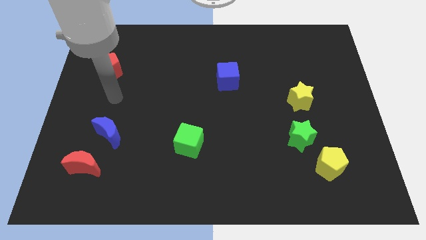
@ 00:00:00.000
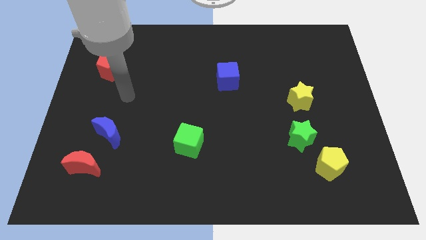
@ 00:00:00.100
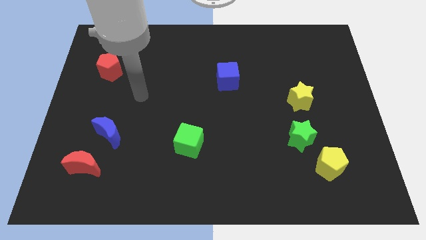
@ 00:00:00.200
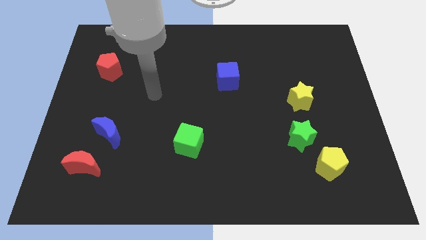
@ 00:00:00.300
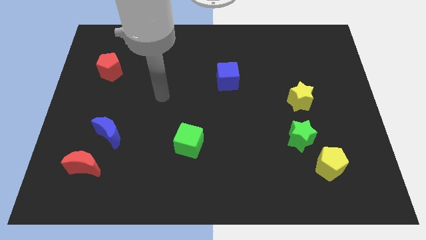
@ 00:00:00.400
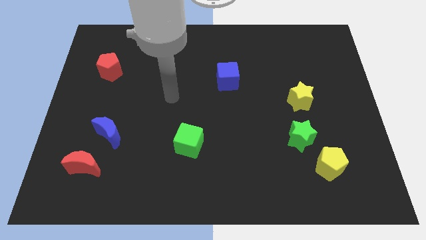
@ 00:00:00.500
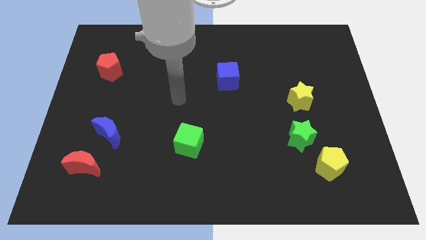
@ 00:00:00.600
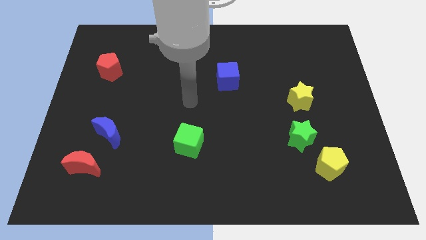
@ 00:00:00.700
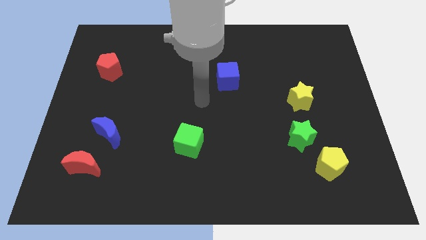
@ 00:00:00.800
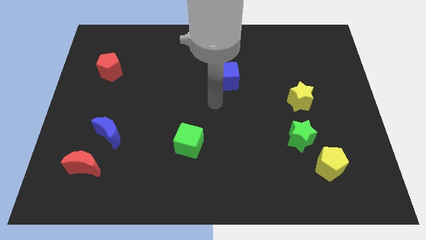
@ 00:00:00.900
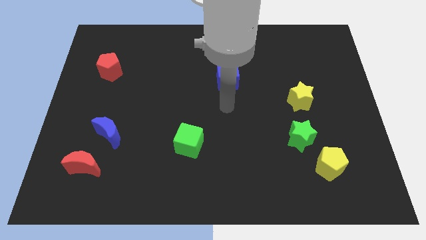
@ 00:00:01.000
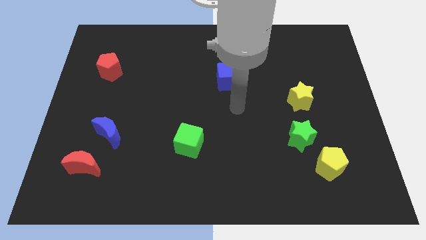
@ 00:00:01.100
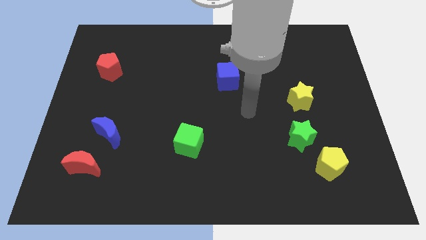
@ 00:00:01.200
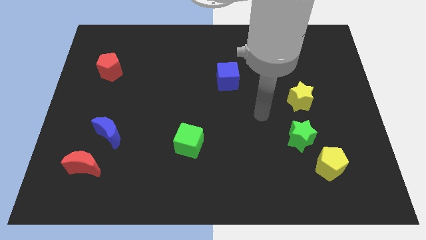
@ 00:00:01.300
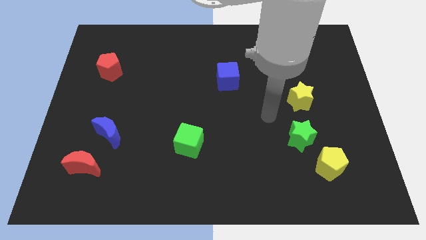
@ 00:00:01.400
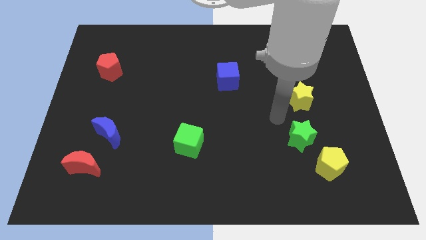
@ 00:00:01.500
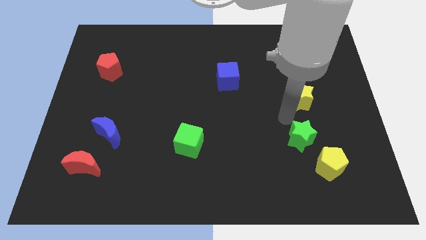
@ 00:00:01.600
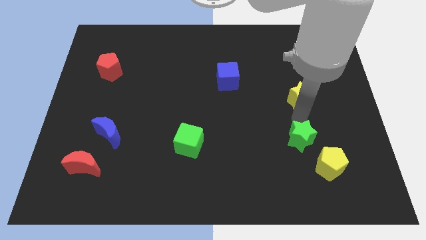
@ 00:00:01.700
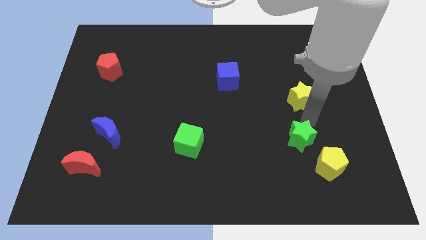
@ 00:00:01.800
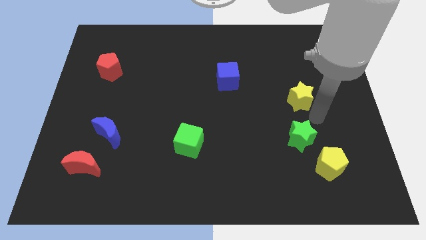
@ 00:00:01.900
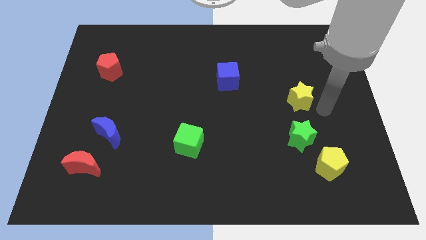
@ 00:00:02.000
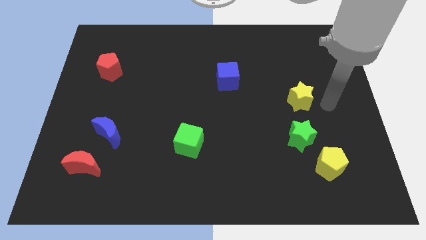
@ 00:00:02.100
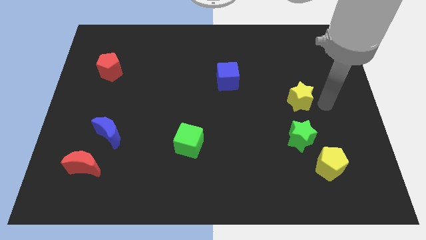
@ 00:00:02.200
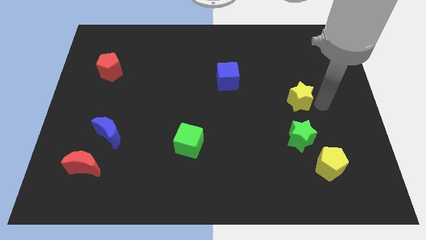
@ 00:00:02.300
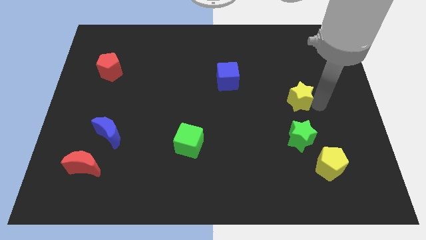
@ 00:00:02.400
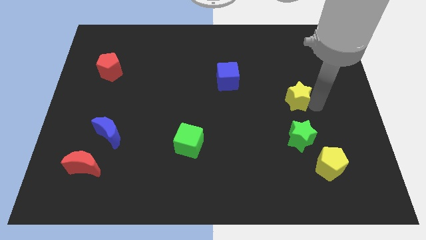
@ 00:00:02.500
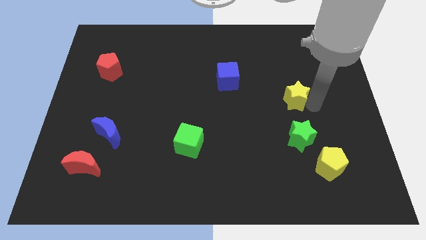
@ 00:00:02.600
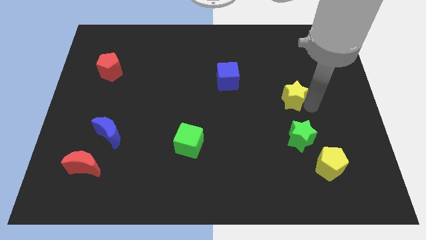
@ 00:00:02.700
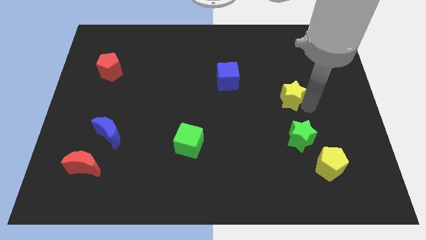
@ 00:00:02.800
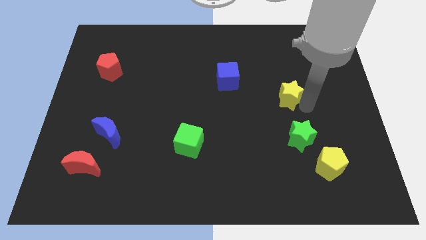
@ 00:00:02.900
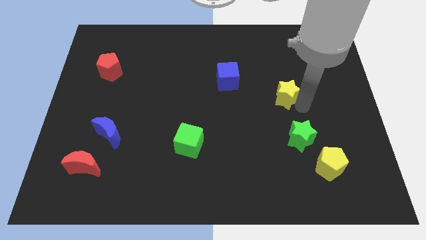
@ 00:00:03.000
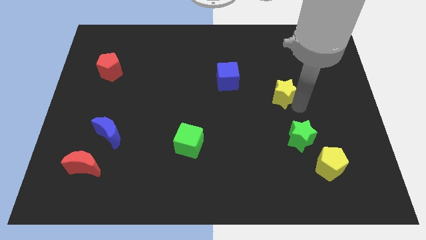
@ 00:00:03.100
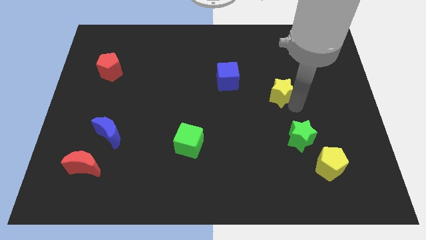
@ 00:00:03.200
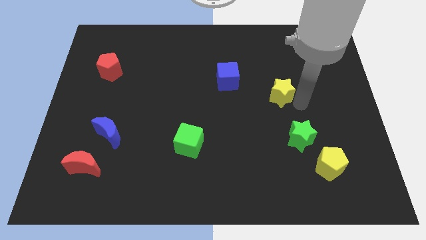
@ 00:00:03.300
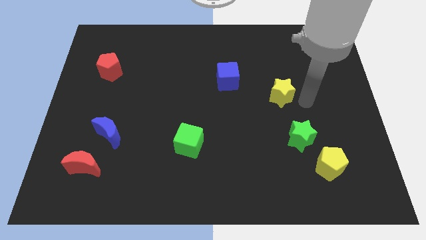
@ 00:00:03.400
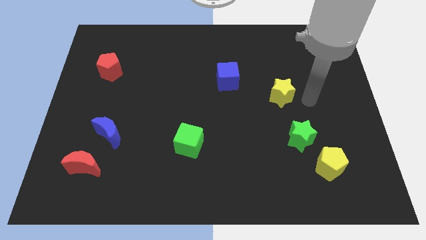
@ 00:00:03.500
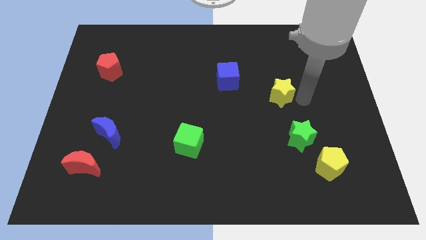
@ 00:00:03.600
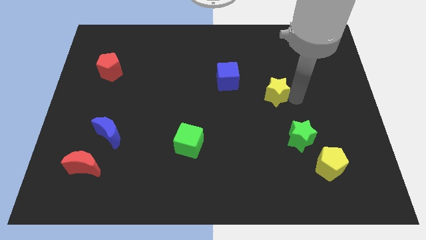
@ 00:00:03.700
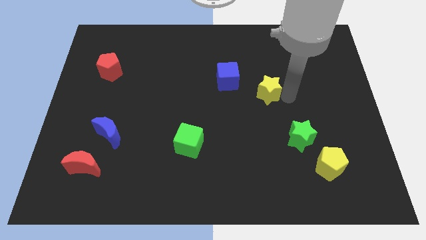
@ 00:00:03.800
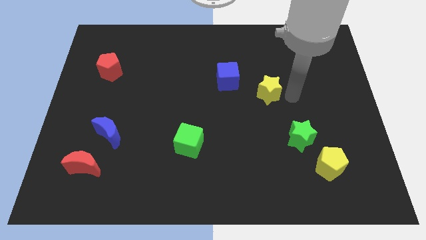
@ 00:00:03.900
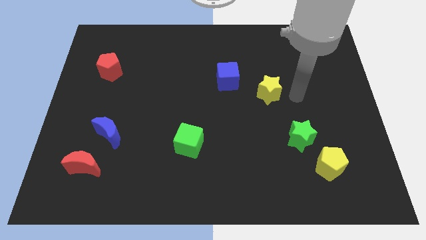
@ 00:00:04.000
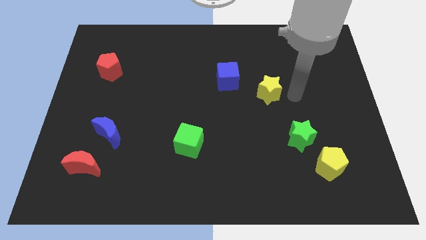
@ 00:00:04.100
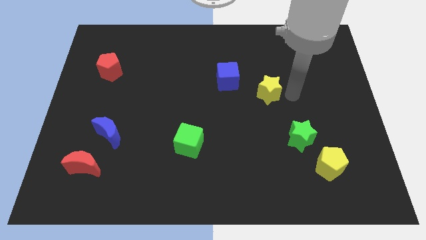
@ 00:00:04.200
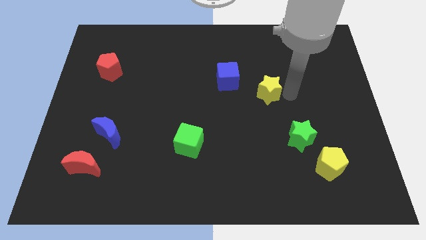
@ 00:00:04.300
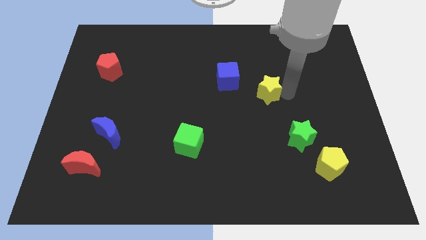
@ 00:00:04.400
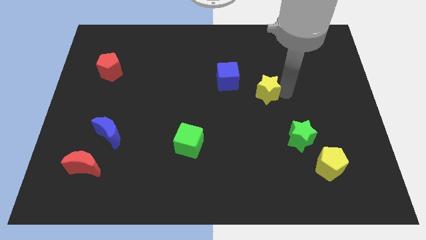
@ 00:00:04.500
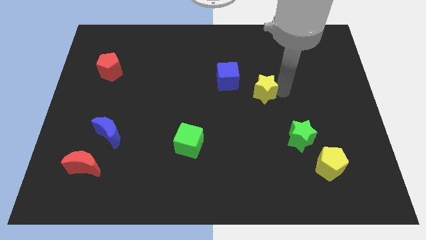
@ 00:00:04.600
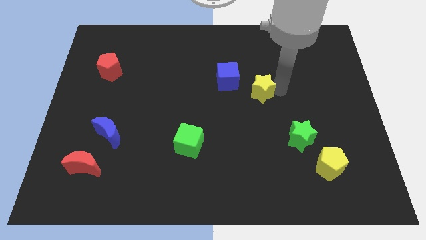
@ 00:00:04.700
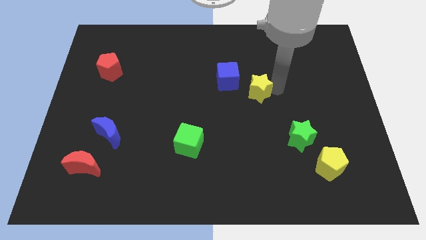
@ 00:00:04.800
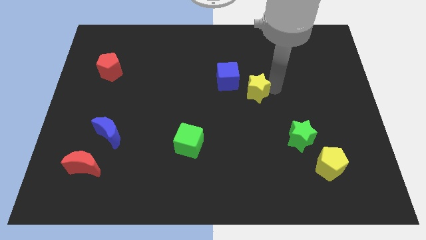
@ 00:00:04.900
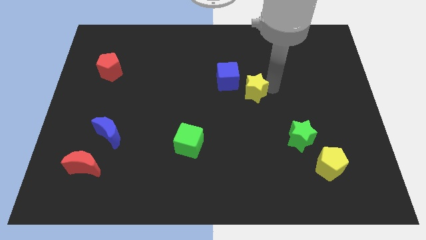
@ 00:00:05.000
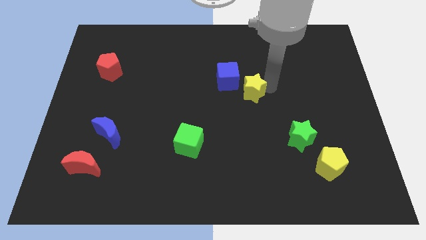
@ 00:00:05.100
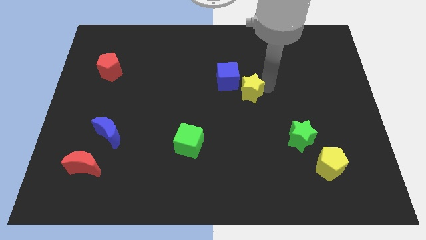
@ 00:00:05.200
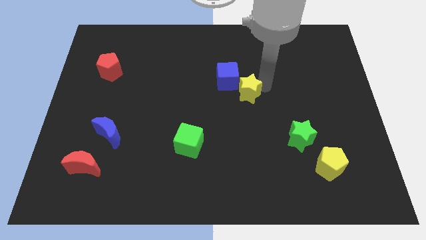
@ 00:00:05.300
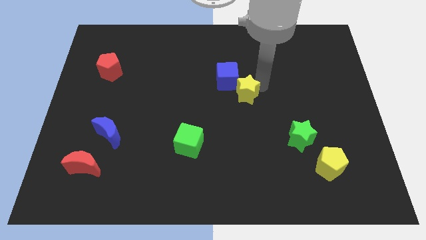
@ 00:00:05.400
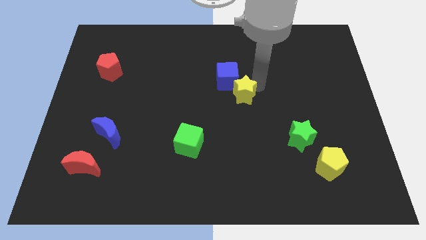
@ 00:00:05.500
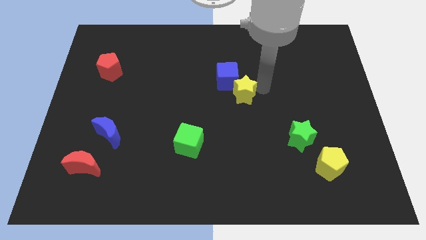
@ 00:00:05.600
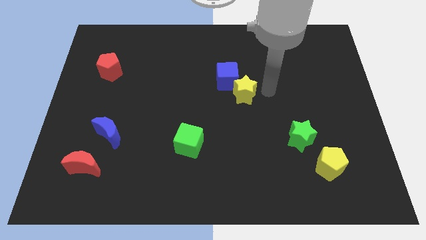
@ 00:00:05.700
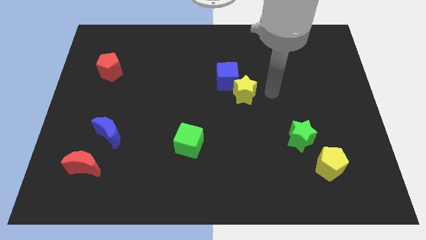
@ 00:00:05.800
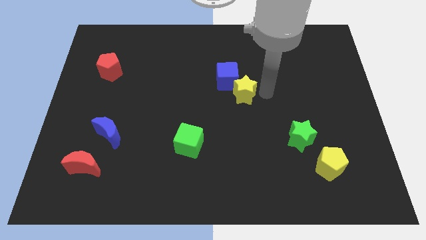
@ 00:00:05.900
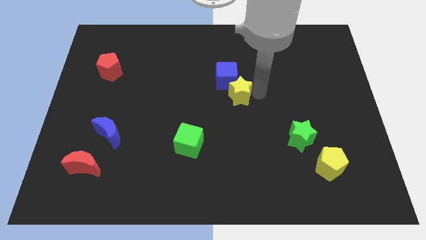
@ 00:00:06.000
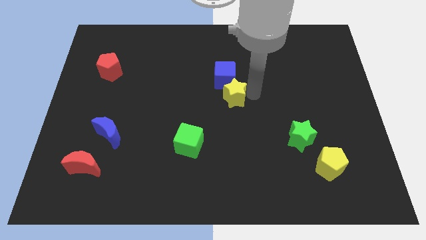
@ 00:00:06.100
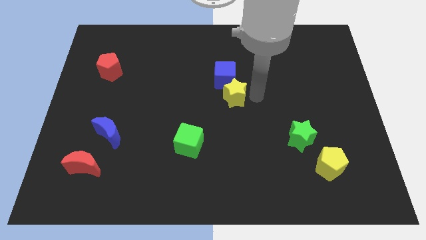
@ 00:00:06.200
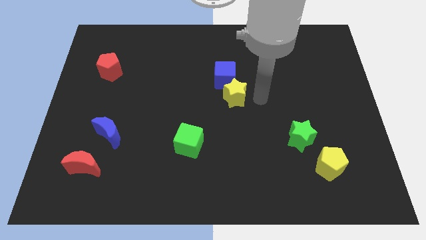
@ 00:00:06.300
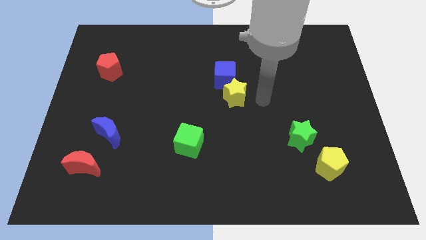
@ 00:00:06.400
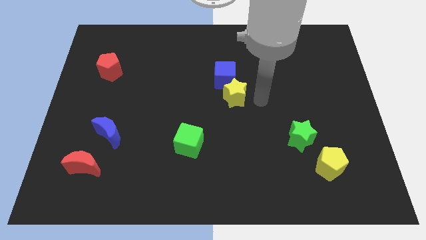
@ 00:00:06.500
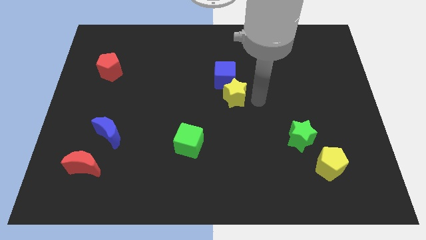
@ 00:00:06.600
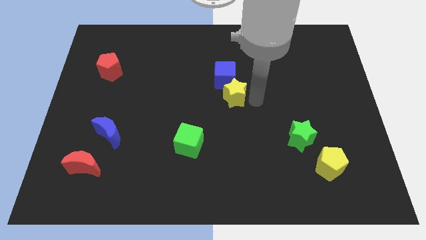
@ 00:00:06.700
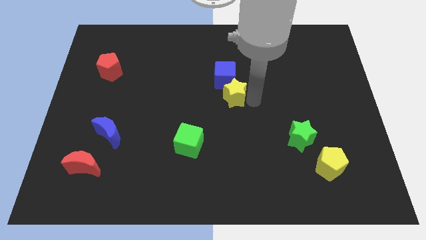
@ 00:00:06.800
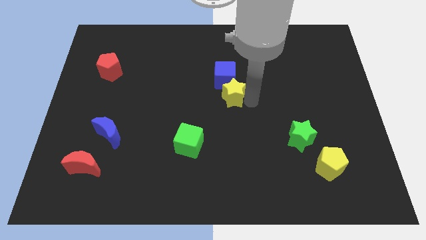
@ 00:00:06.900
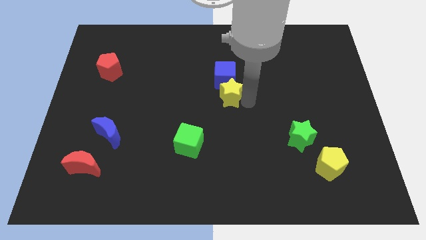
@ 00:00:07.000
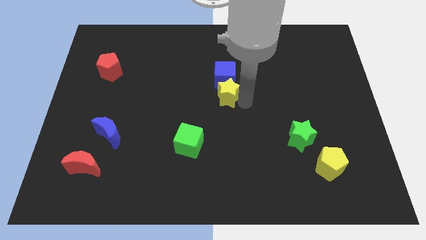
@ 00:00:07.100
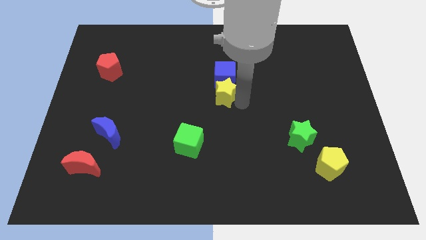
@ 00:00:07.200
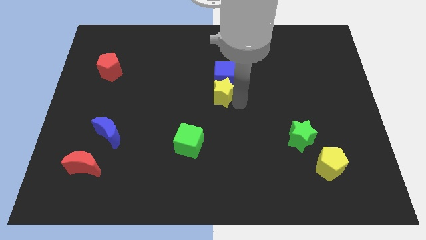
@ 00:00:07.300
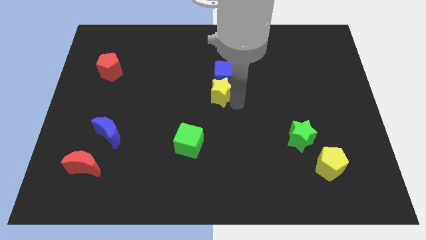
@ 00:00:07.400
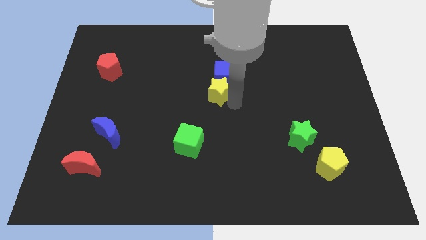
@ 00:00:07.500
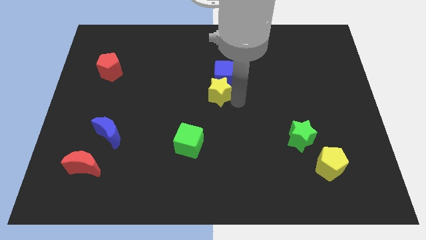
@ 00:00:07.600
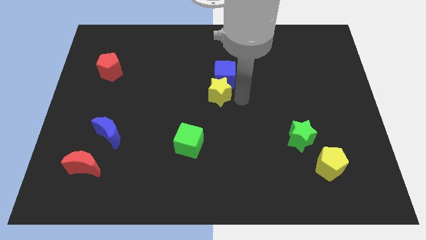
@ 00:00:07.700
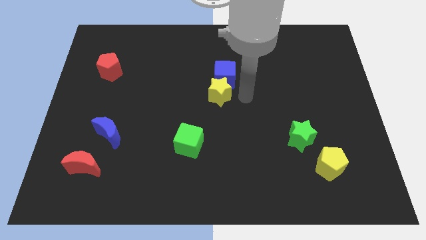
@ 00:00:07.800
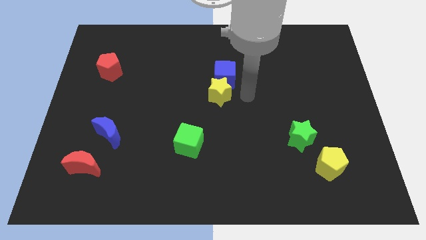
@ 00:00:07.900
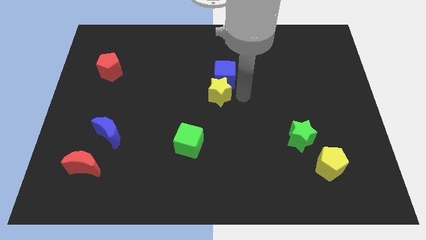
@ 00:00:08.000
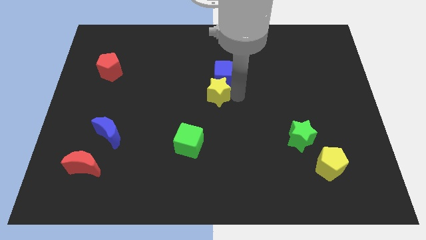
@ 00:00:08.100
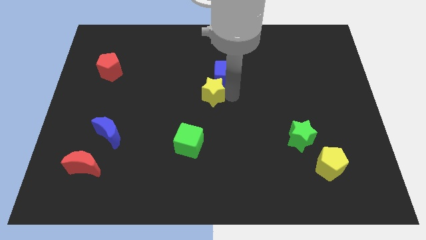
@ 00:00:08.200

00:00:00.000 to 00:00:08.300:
push the yellow star left
